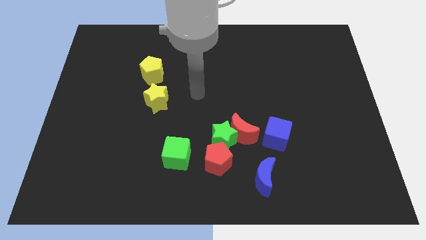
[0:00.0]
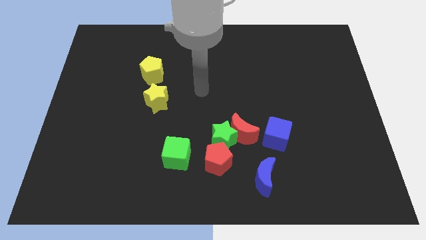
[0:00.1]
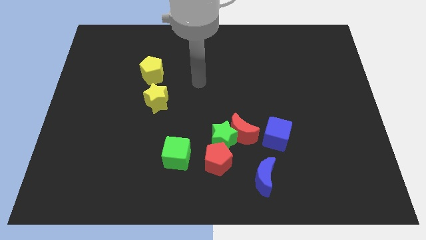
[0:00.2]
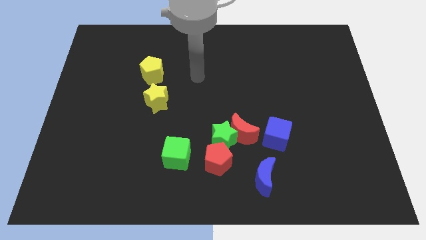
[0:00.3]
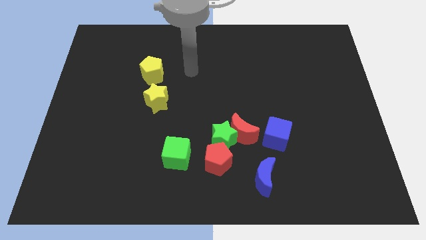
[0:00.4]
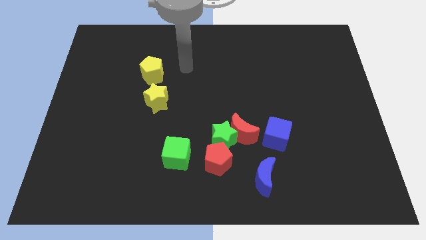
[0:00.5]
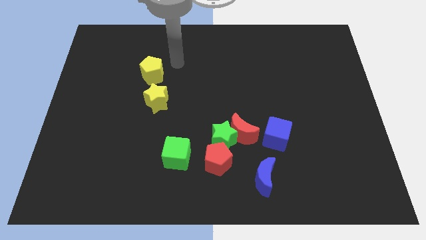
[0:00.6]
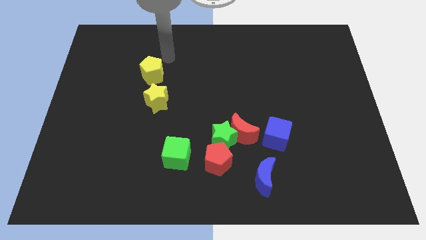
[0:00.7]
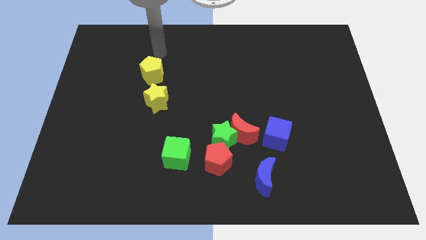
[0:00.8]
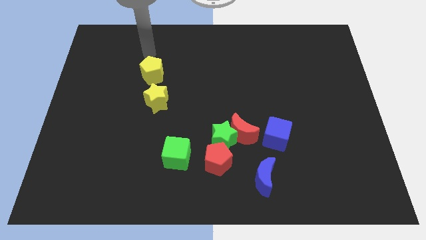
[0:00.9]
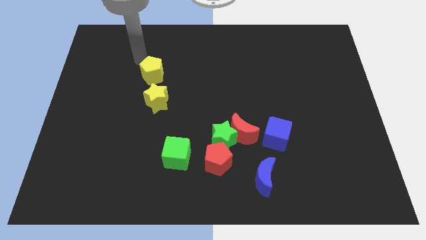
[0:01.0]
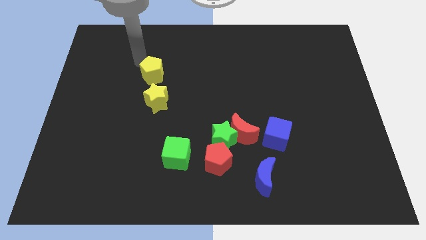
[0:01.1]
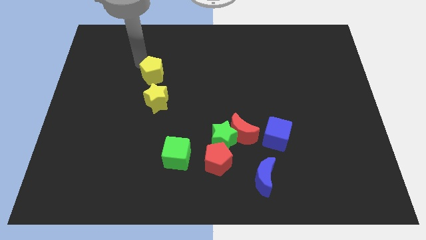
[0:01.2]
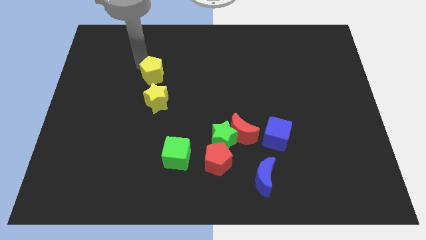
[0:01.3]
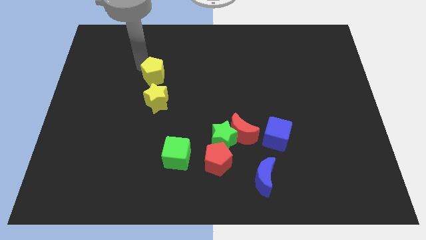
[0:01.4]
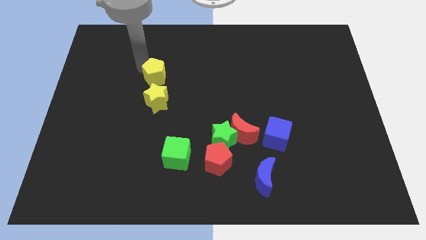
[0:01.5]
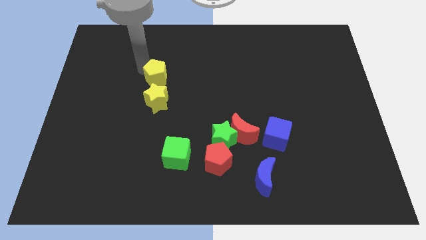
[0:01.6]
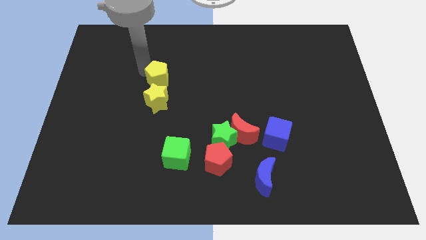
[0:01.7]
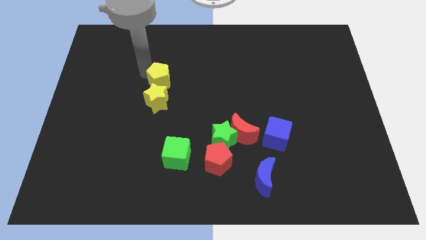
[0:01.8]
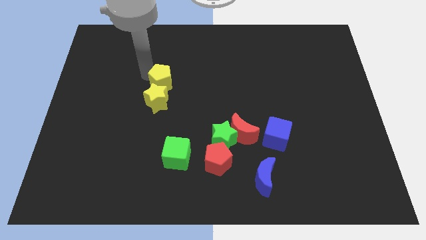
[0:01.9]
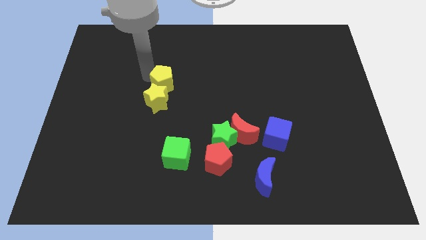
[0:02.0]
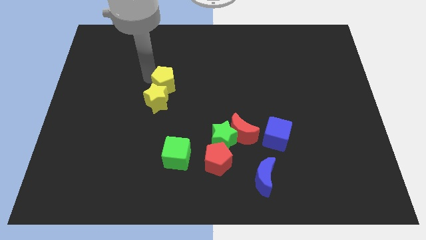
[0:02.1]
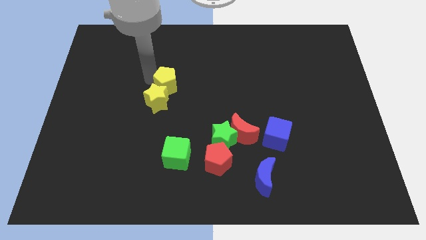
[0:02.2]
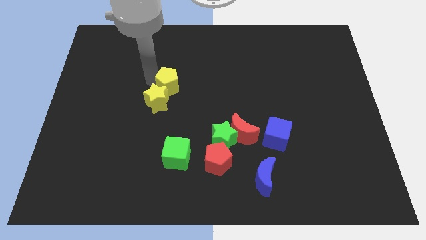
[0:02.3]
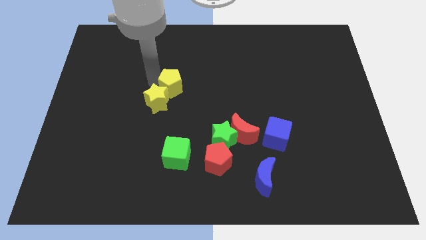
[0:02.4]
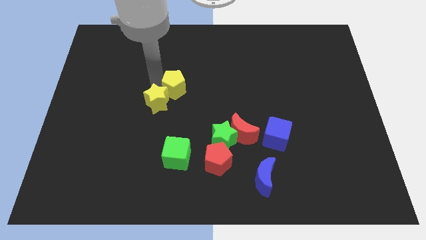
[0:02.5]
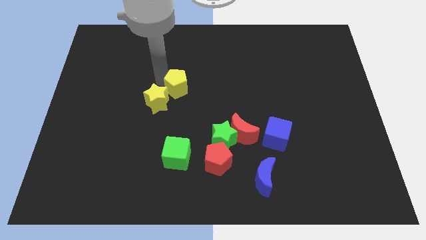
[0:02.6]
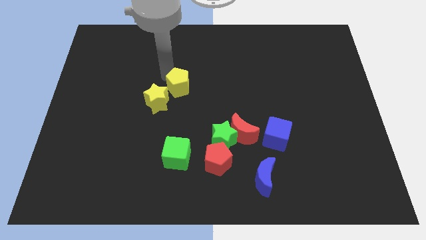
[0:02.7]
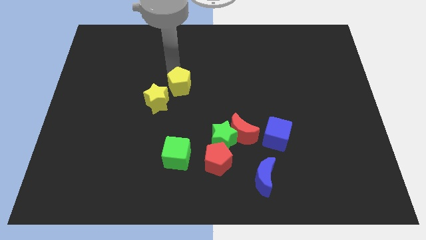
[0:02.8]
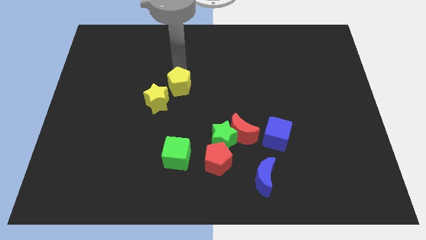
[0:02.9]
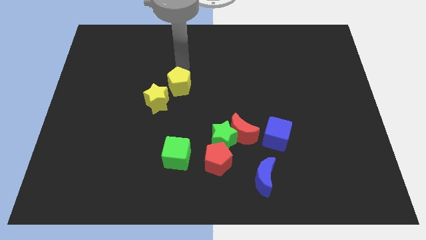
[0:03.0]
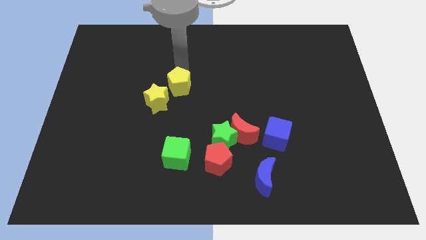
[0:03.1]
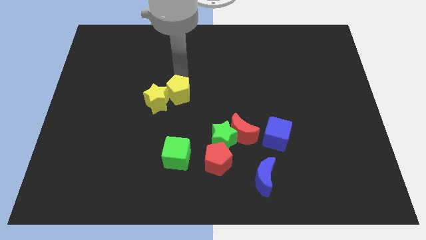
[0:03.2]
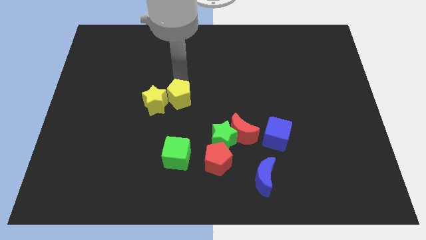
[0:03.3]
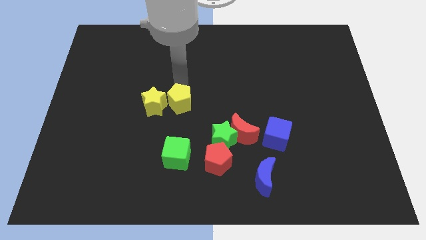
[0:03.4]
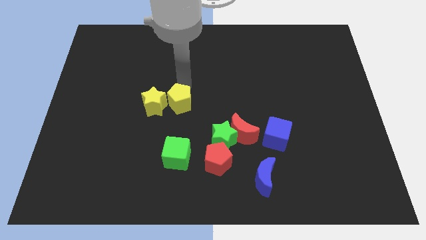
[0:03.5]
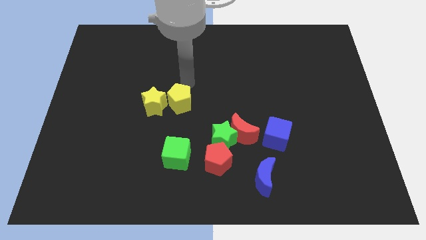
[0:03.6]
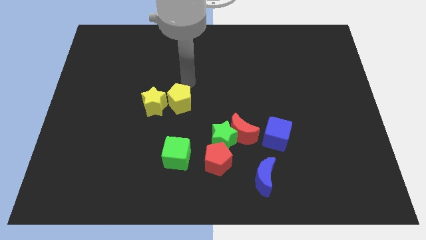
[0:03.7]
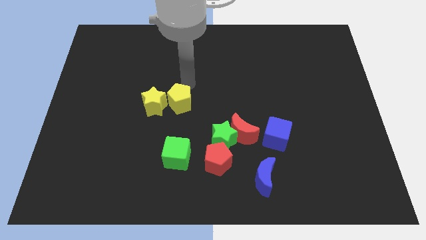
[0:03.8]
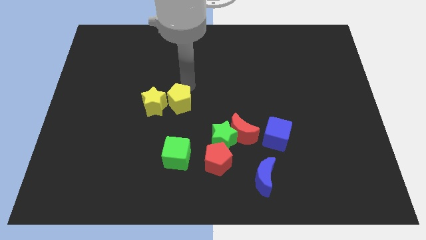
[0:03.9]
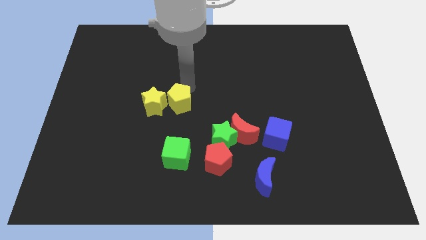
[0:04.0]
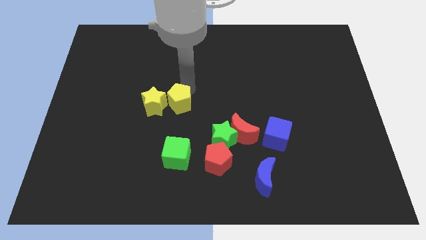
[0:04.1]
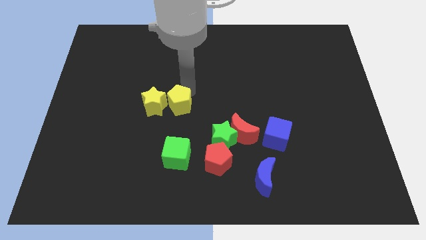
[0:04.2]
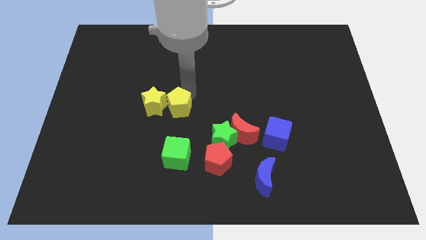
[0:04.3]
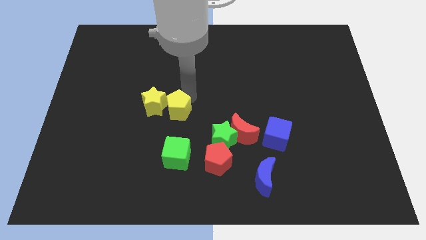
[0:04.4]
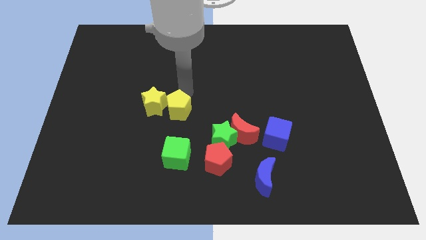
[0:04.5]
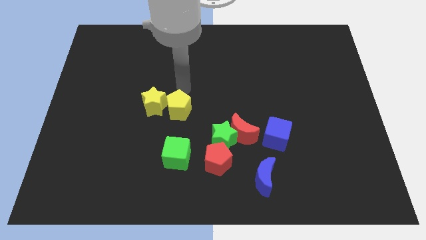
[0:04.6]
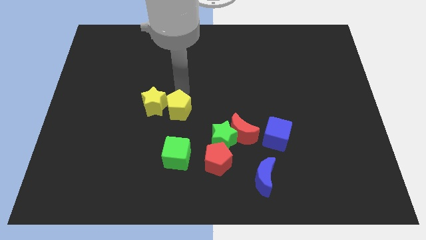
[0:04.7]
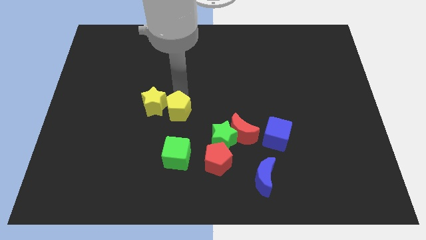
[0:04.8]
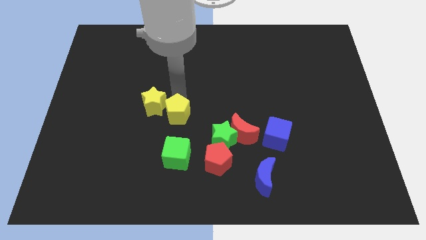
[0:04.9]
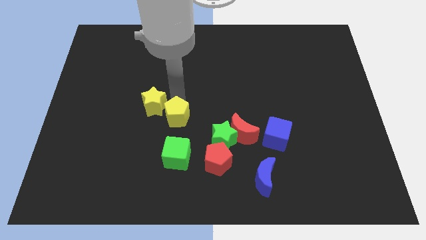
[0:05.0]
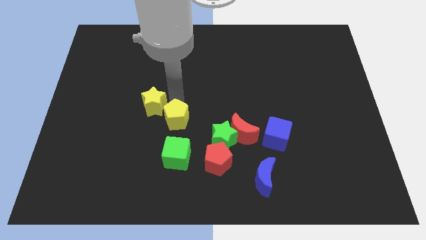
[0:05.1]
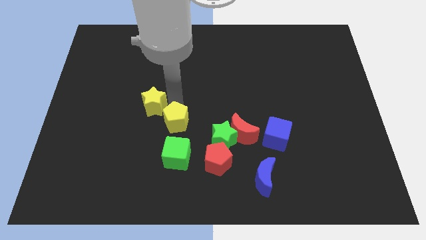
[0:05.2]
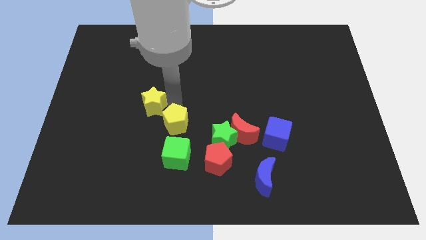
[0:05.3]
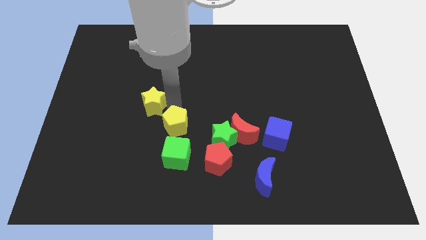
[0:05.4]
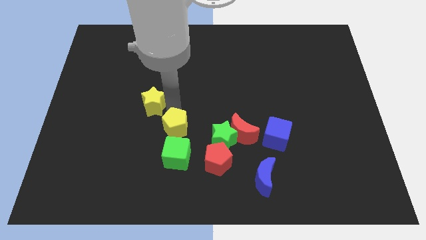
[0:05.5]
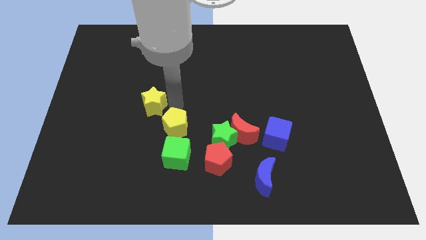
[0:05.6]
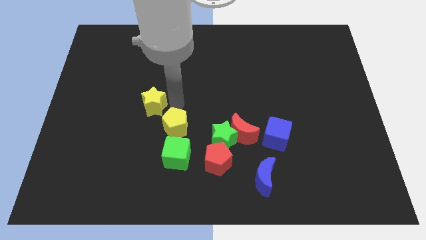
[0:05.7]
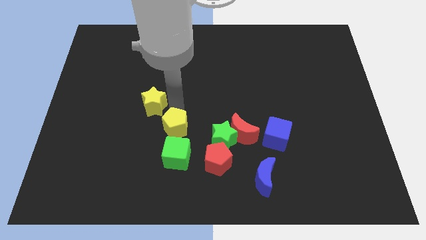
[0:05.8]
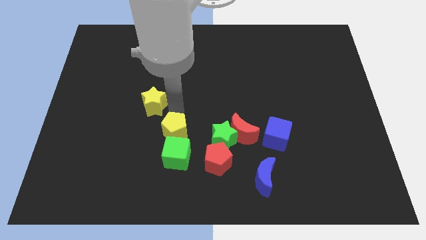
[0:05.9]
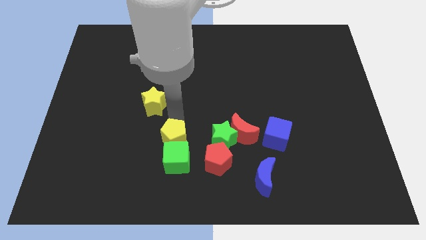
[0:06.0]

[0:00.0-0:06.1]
move the yellow pentagon close to the green cube

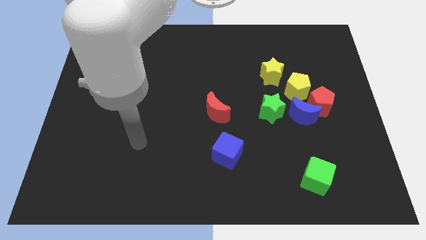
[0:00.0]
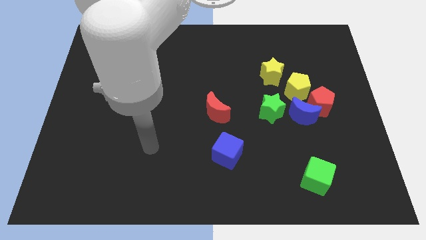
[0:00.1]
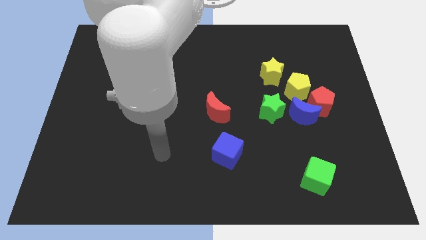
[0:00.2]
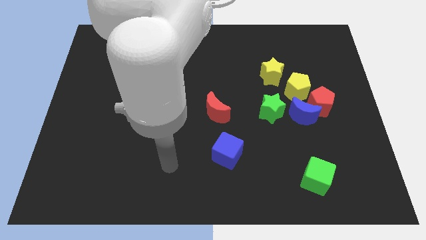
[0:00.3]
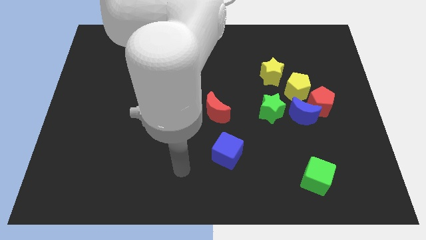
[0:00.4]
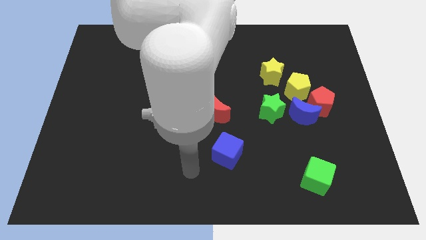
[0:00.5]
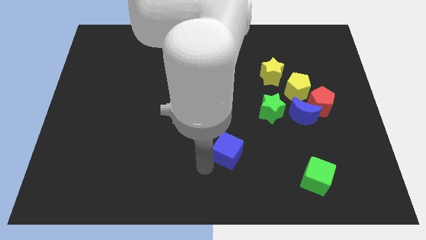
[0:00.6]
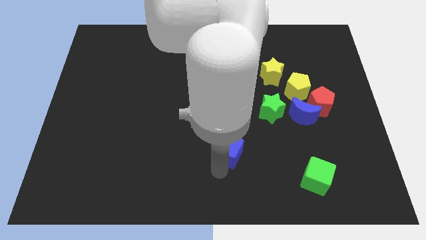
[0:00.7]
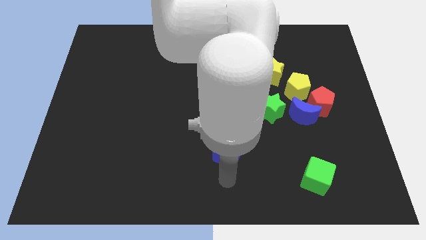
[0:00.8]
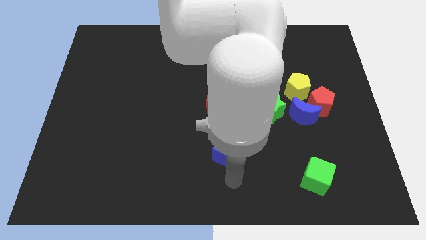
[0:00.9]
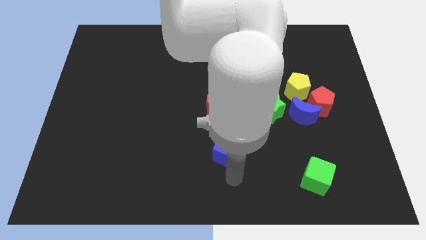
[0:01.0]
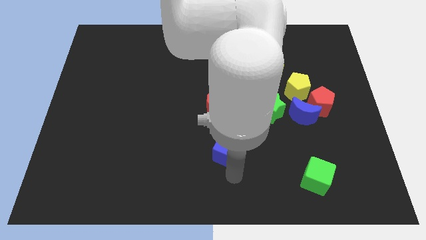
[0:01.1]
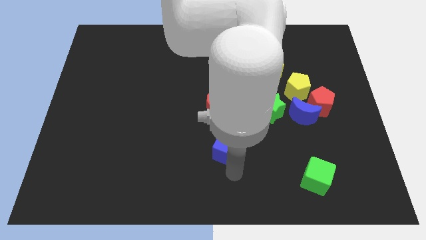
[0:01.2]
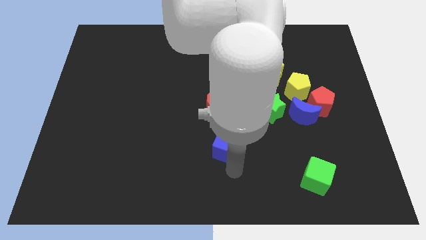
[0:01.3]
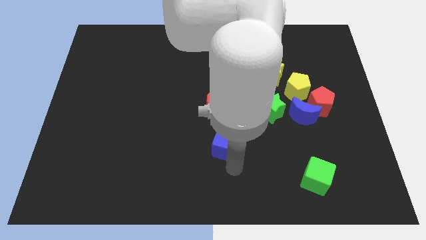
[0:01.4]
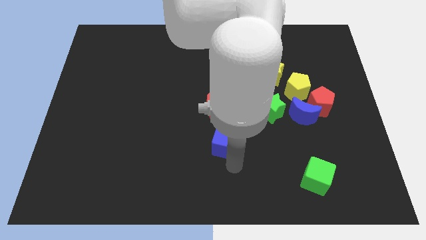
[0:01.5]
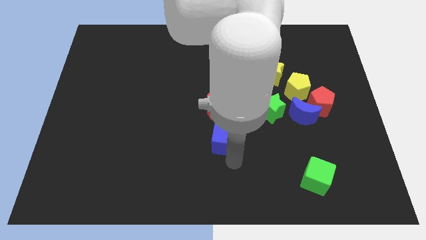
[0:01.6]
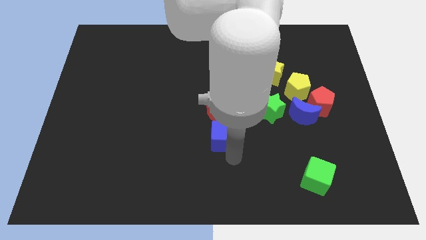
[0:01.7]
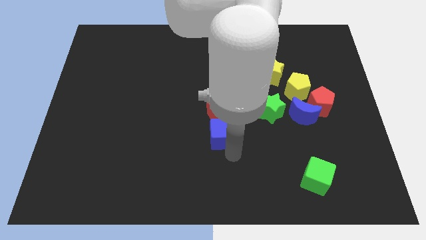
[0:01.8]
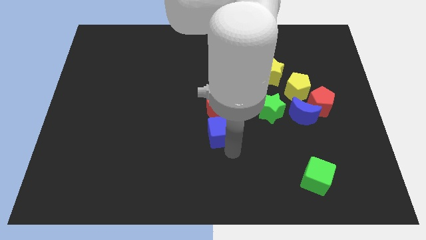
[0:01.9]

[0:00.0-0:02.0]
slide the blue cube towards the red moon
